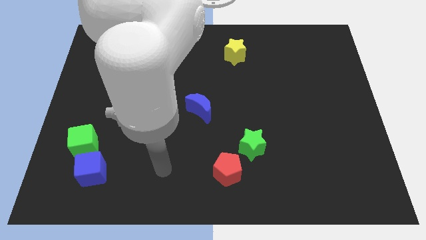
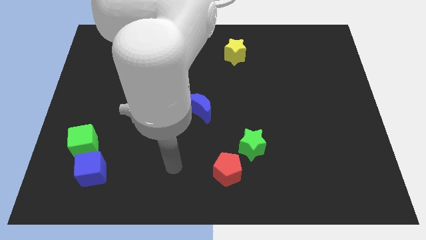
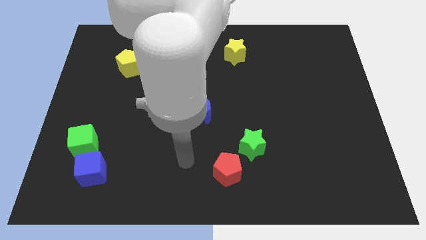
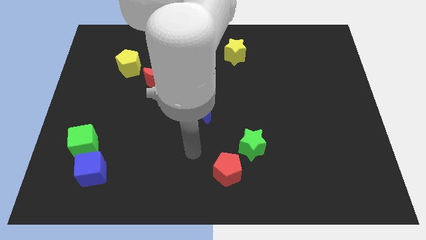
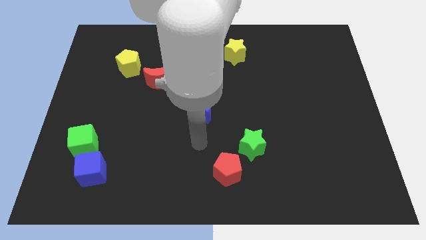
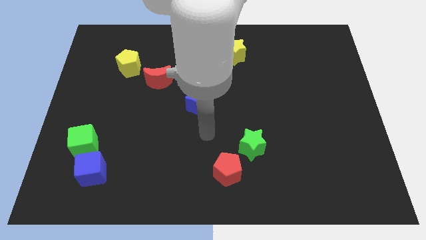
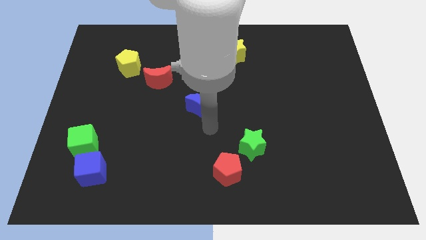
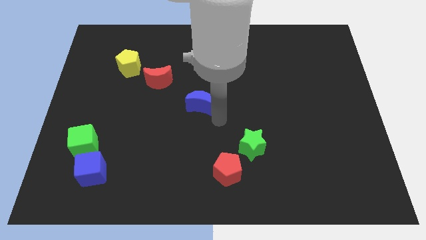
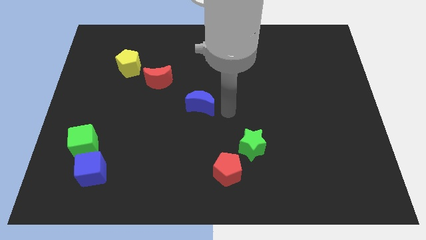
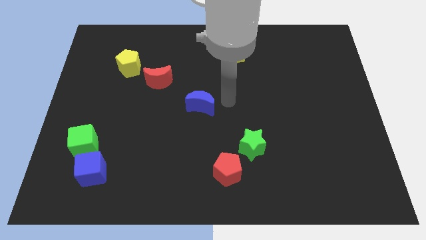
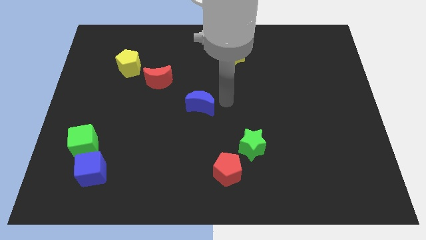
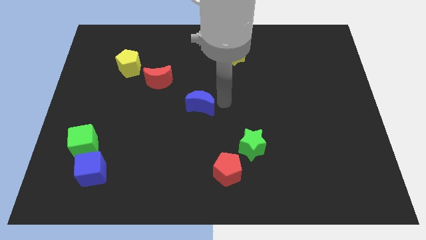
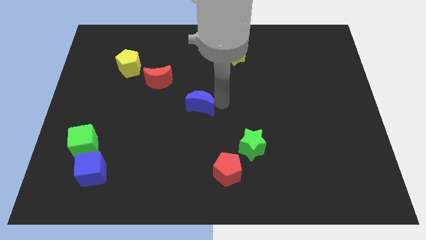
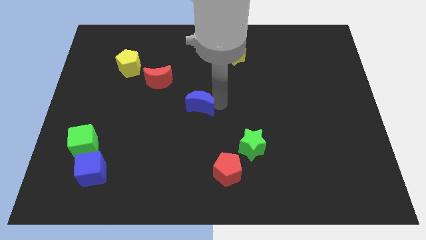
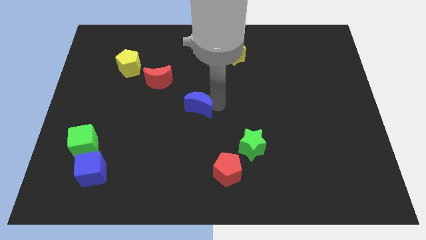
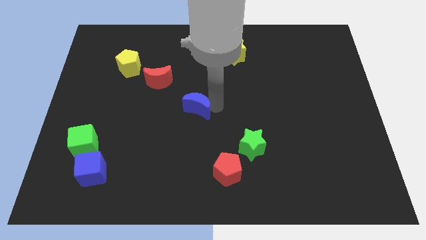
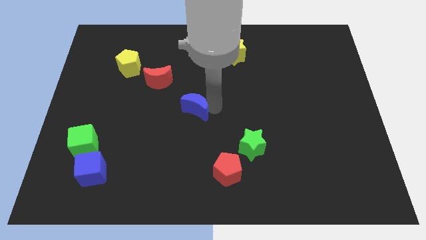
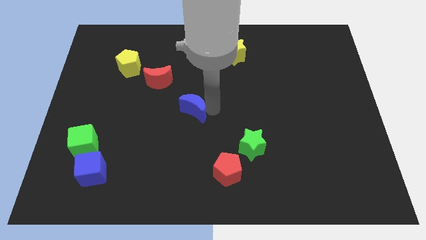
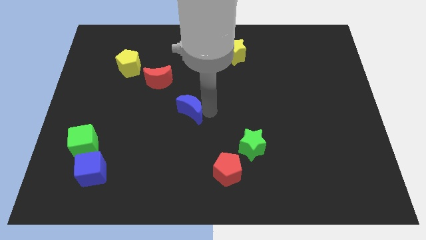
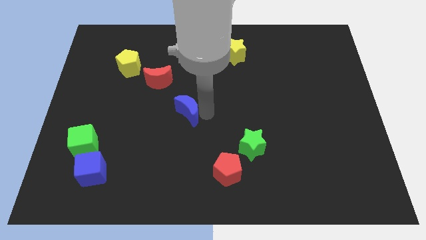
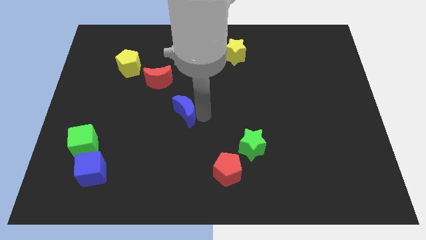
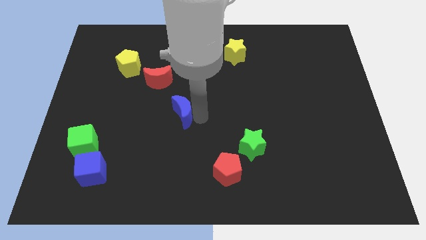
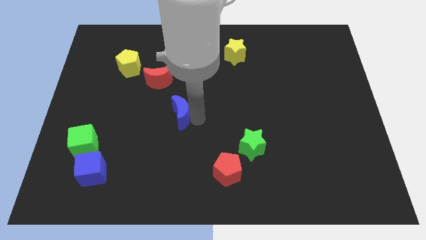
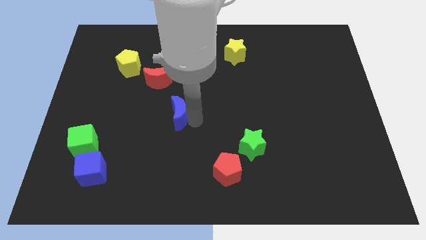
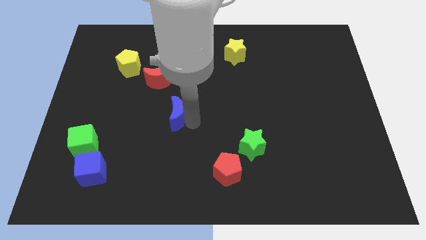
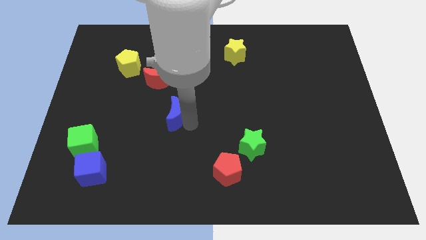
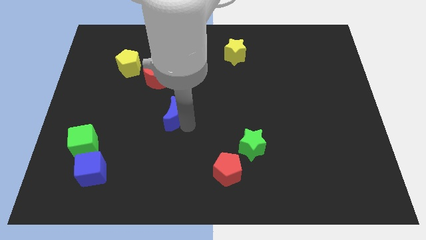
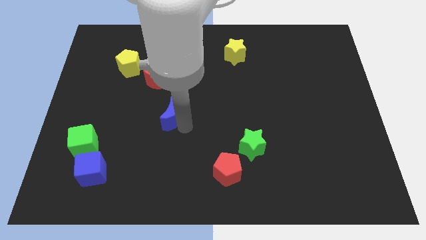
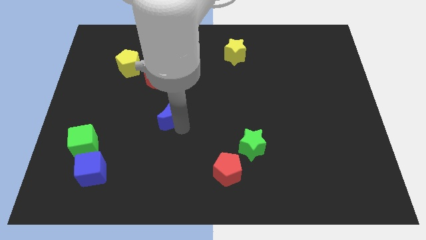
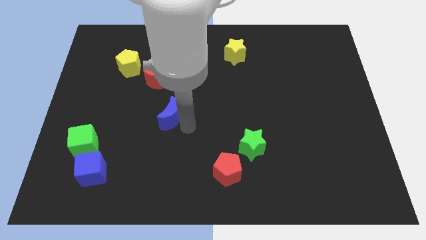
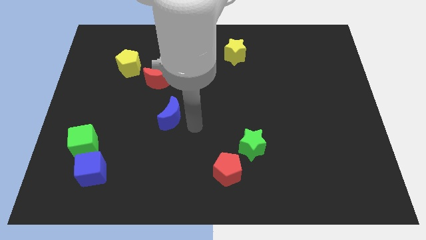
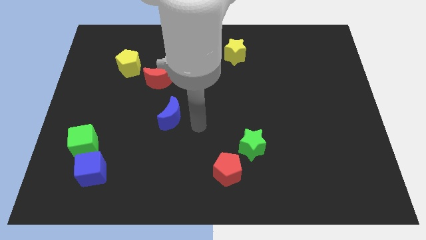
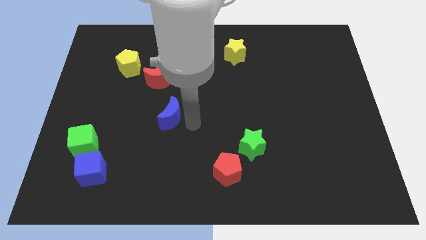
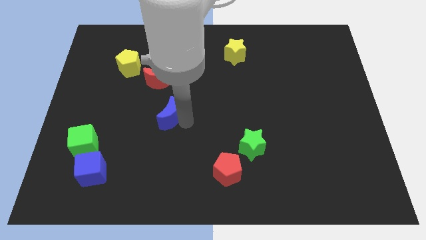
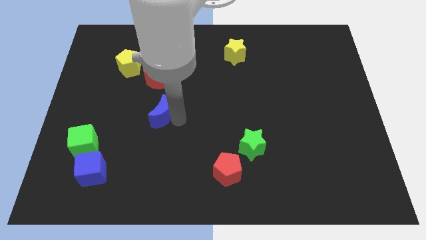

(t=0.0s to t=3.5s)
slide the blue moon a little bit to the left

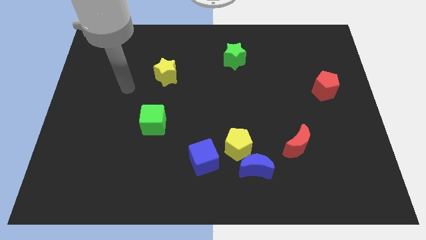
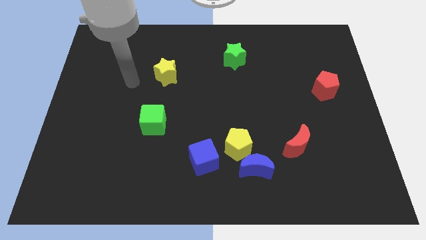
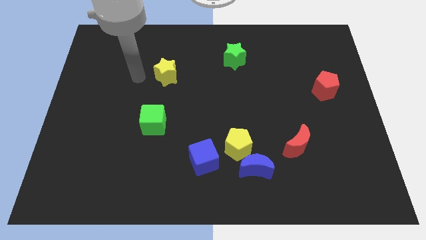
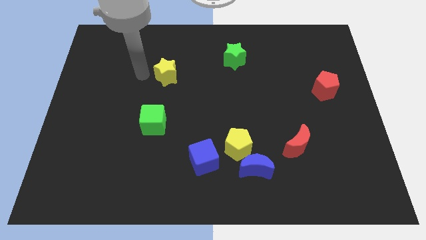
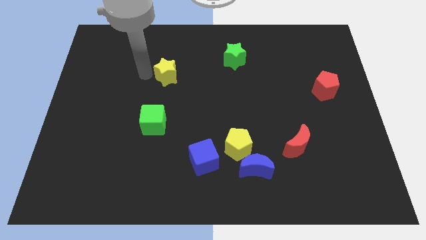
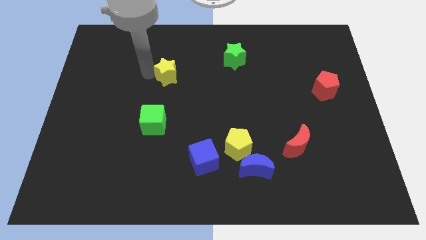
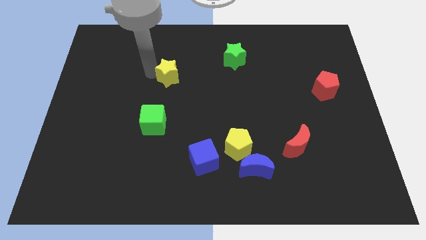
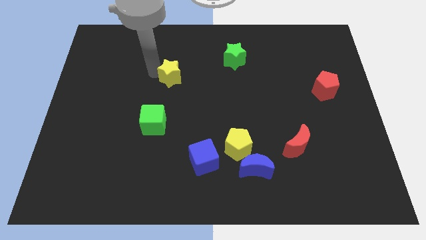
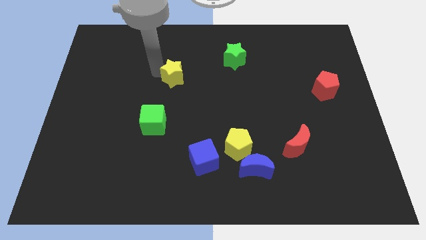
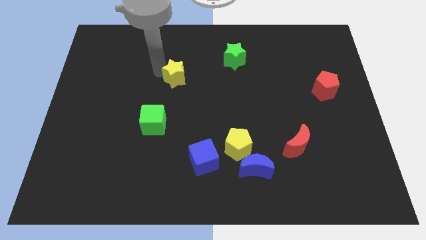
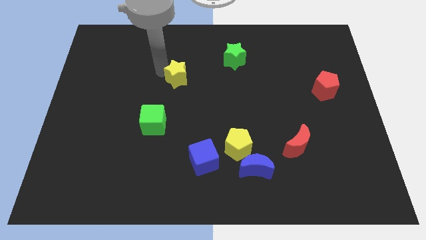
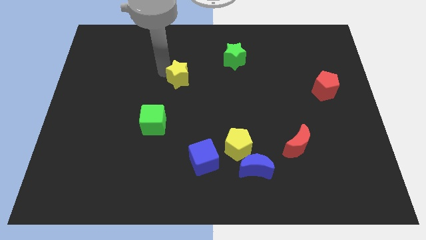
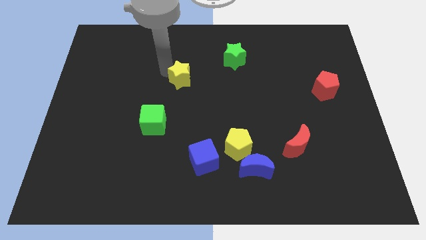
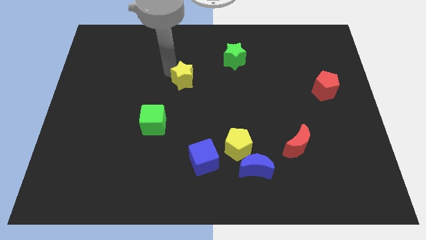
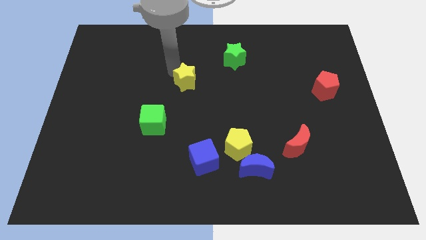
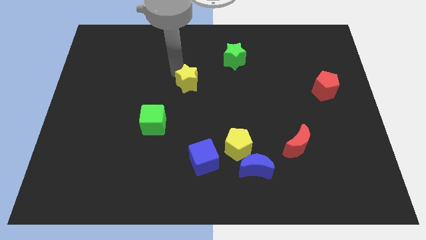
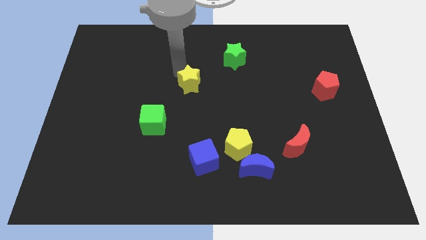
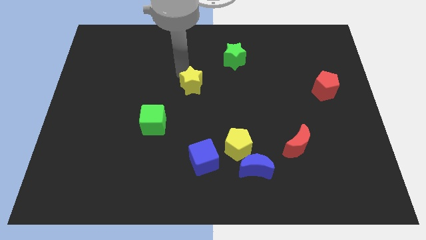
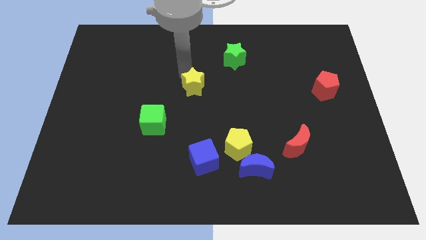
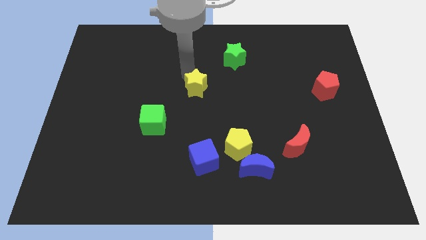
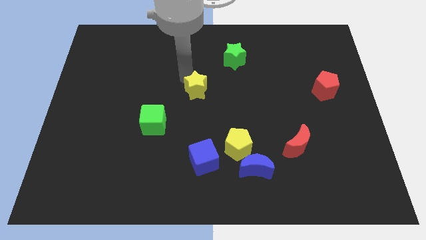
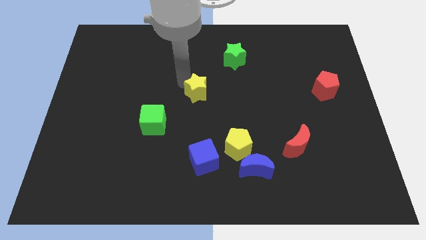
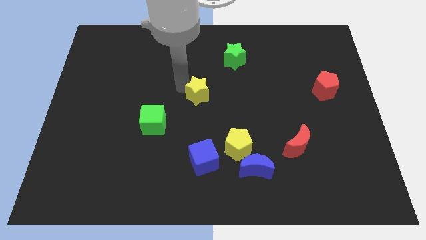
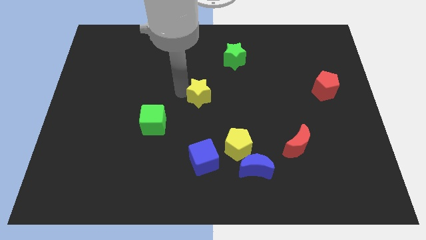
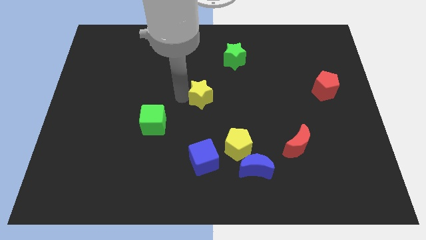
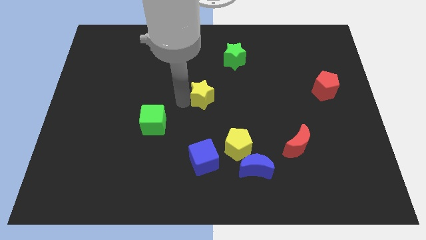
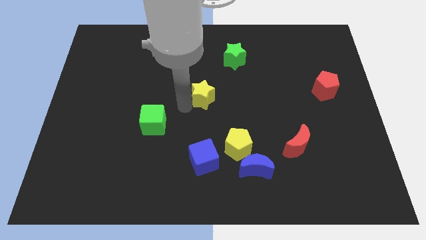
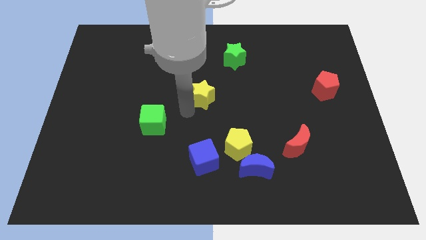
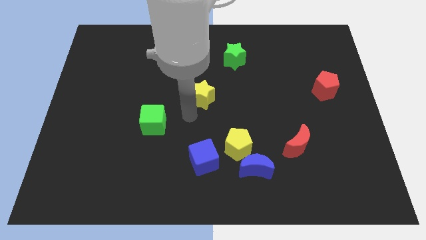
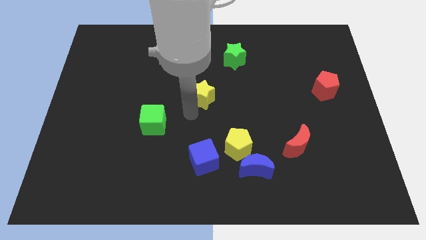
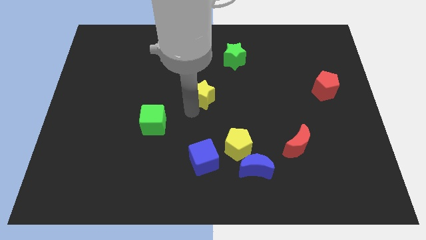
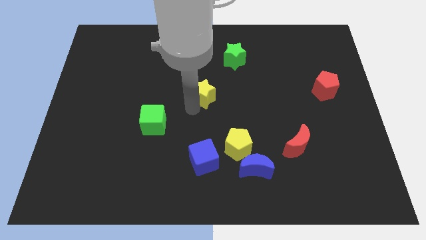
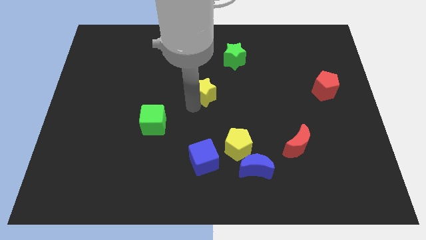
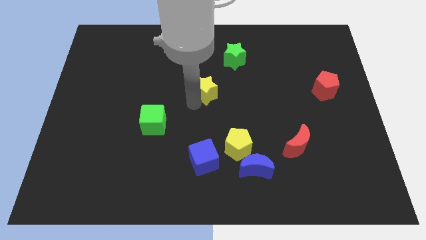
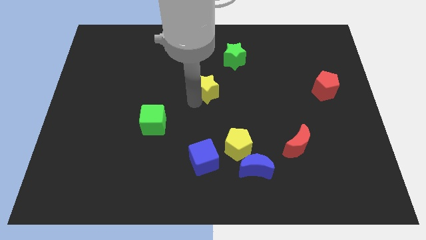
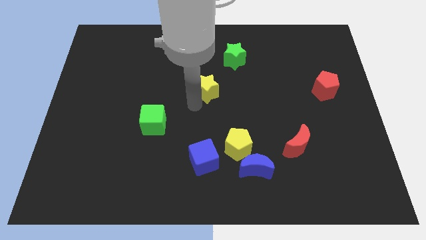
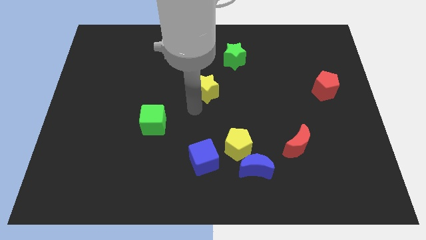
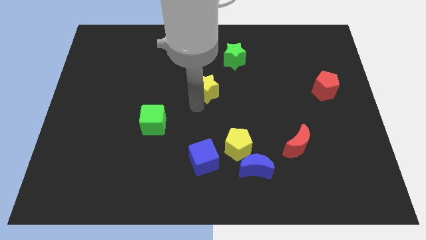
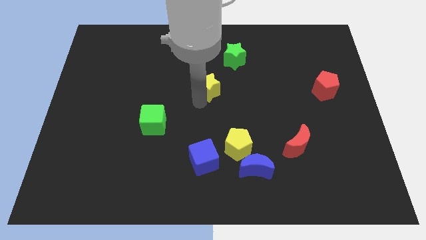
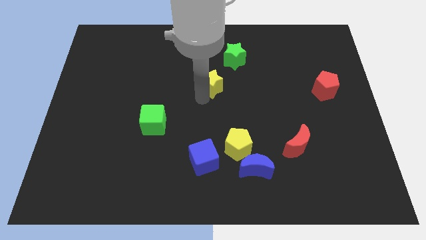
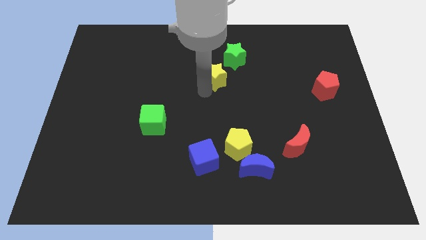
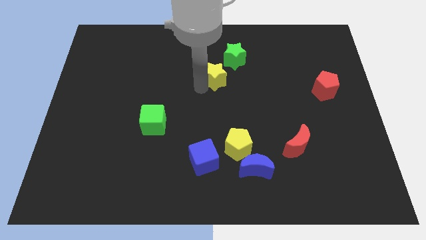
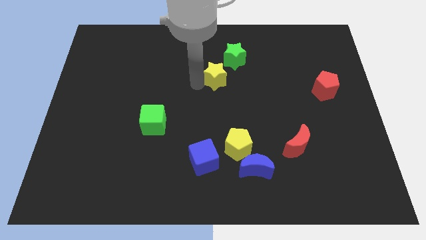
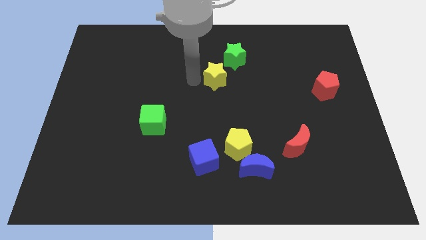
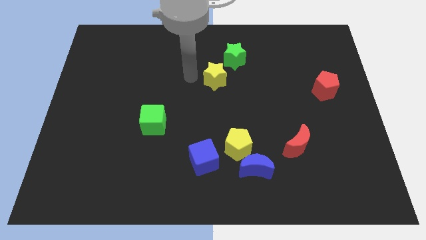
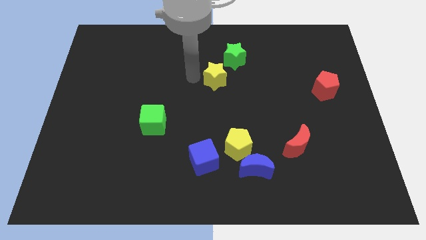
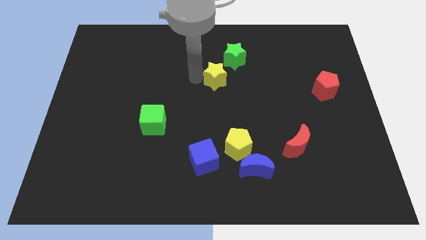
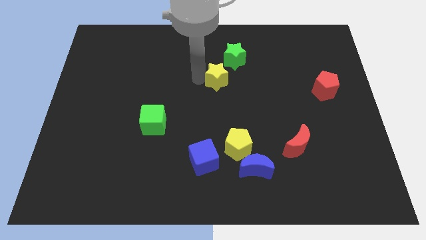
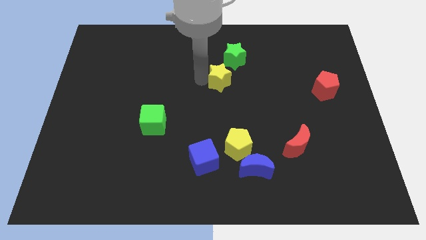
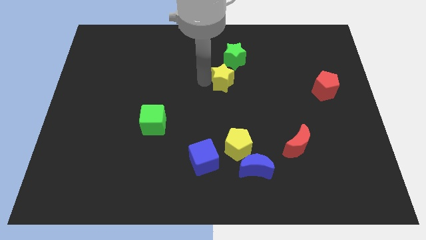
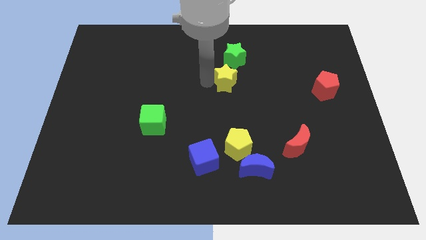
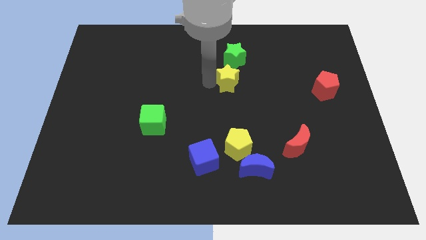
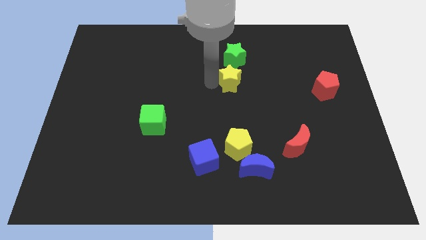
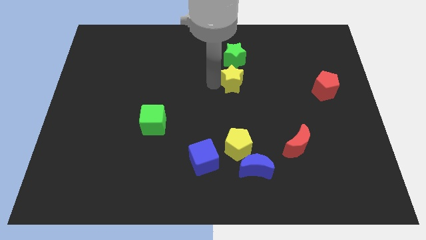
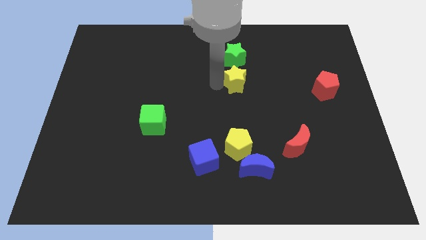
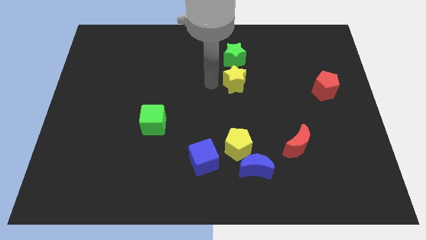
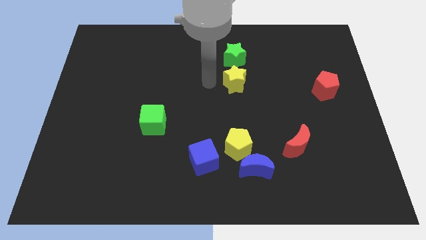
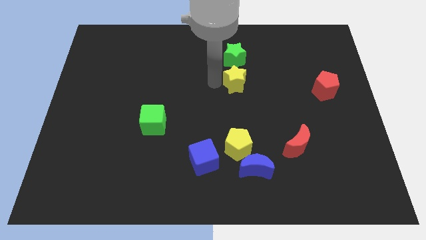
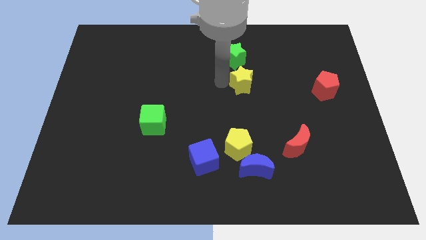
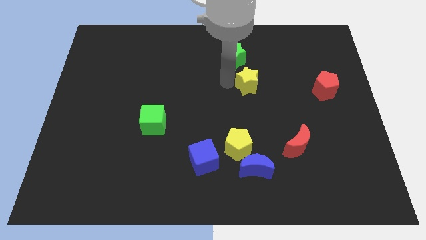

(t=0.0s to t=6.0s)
slide the yellow star to the right
